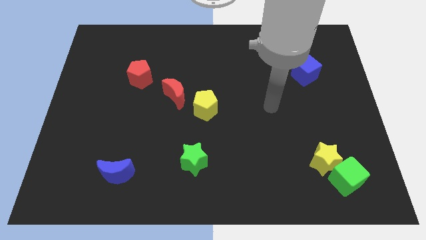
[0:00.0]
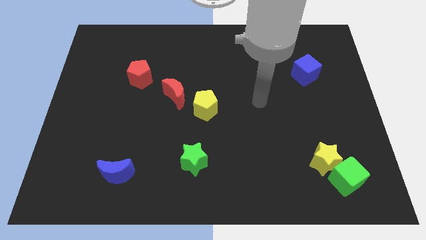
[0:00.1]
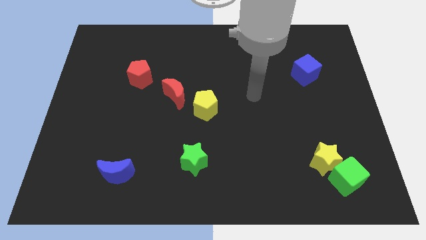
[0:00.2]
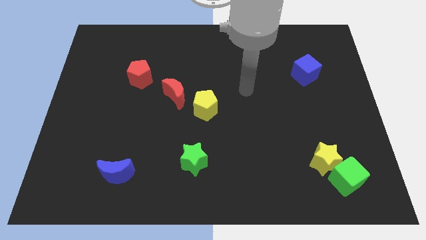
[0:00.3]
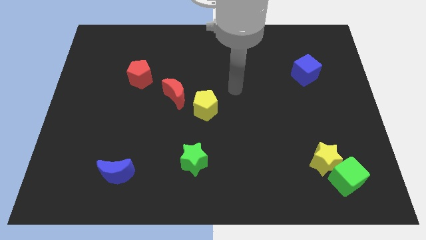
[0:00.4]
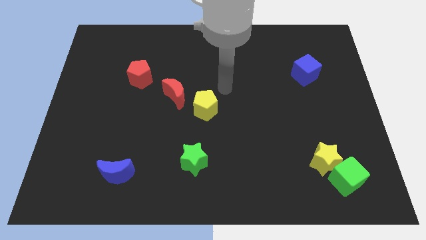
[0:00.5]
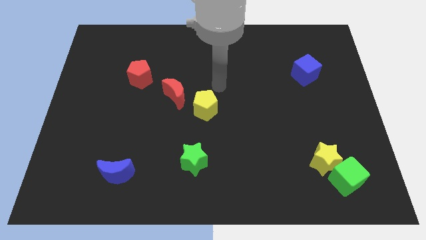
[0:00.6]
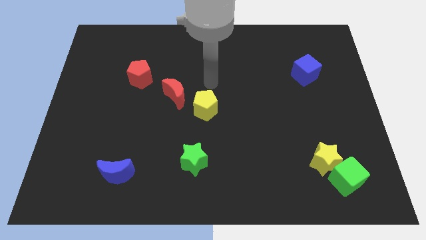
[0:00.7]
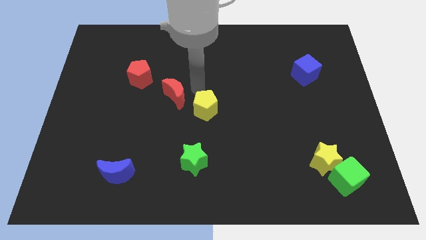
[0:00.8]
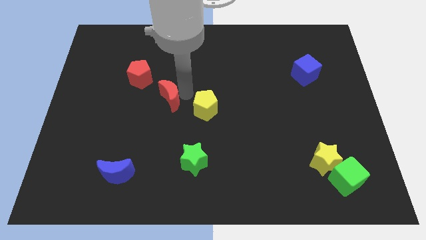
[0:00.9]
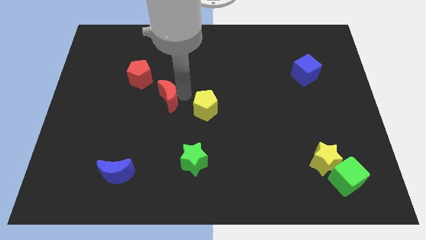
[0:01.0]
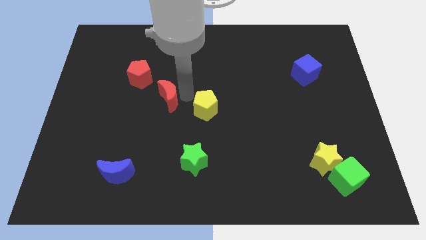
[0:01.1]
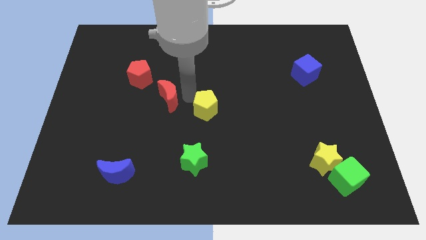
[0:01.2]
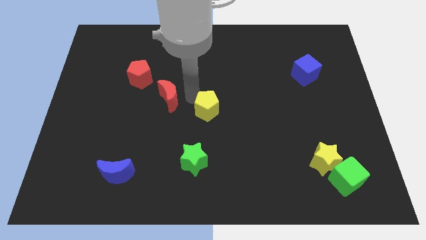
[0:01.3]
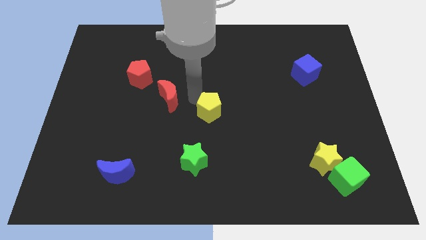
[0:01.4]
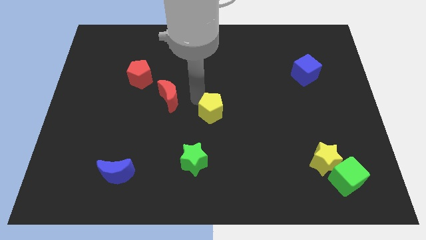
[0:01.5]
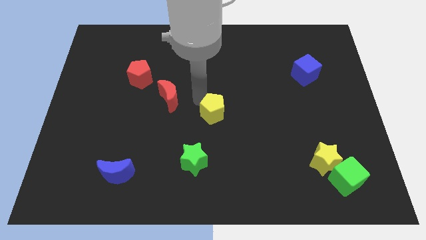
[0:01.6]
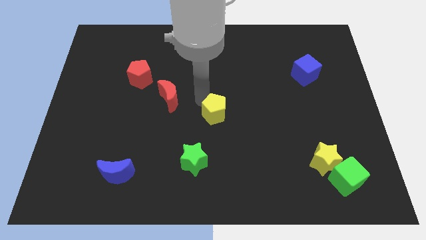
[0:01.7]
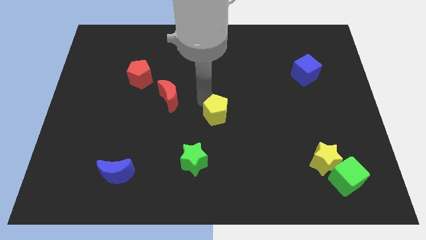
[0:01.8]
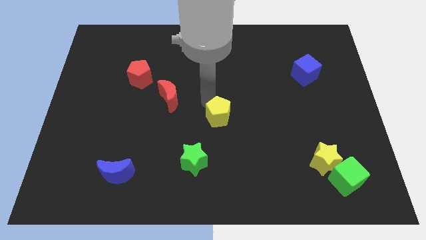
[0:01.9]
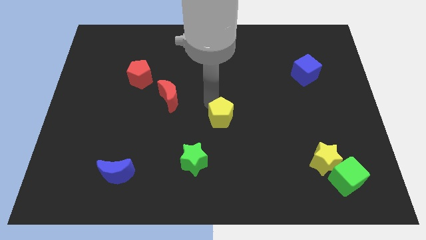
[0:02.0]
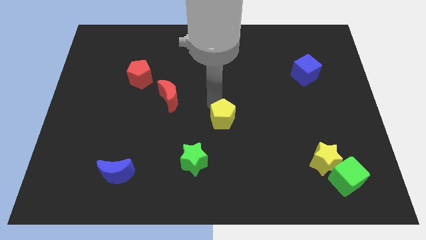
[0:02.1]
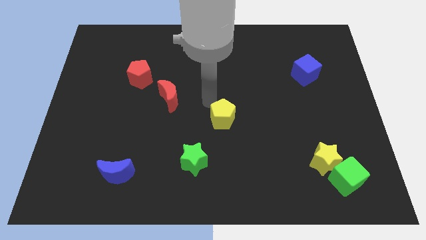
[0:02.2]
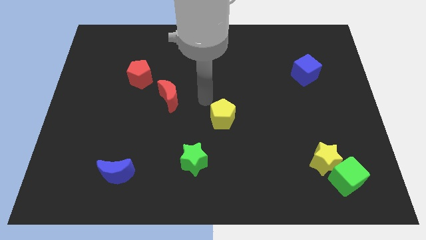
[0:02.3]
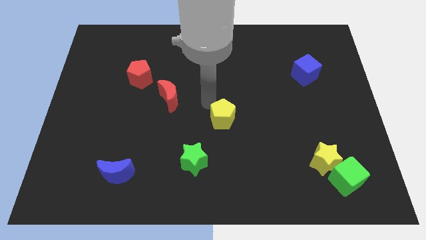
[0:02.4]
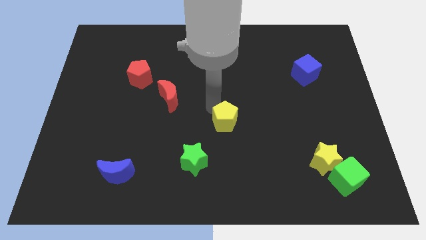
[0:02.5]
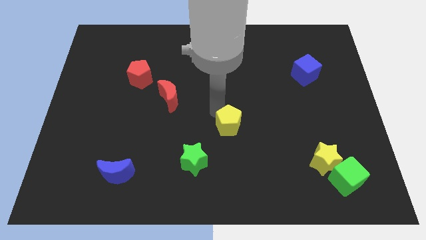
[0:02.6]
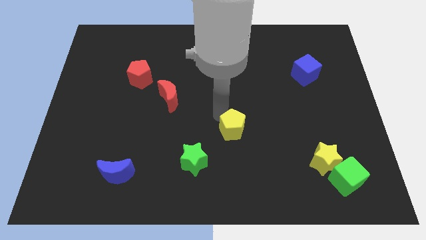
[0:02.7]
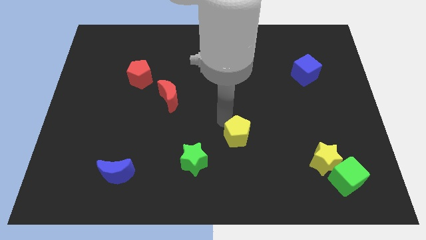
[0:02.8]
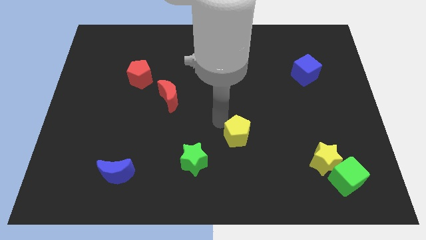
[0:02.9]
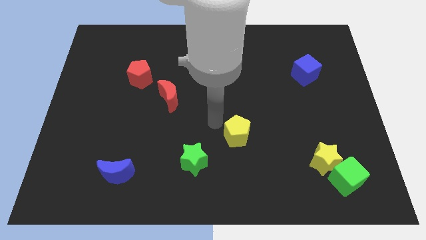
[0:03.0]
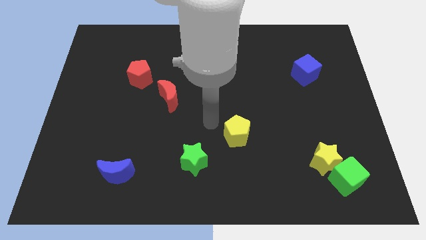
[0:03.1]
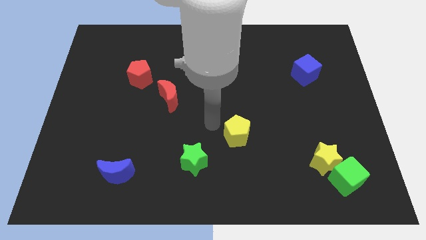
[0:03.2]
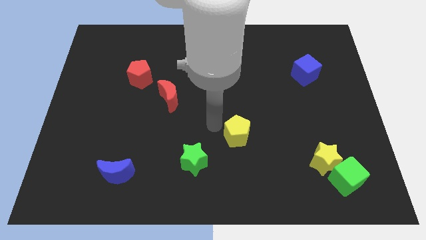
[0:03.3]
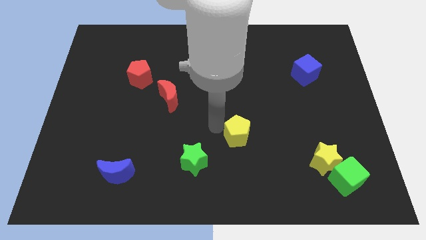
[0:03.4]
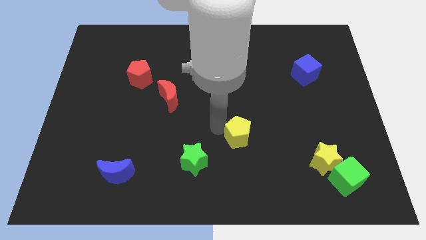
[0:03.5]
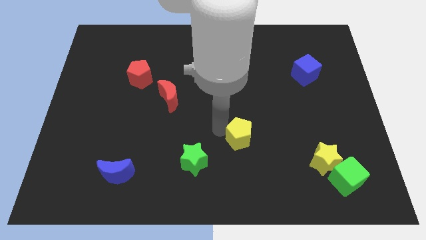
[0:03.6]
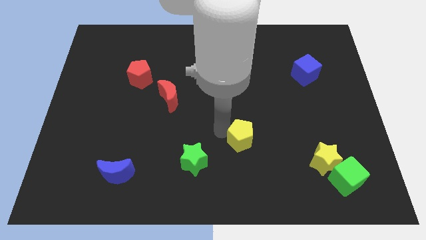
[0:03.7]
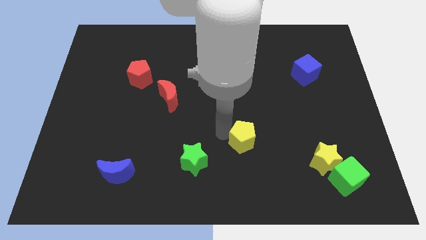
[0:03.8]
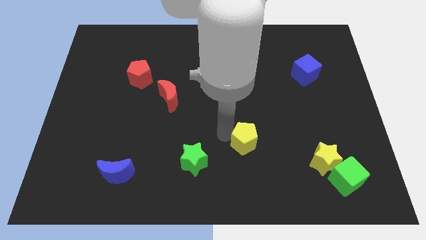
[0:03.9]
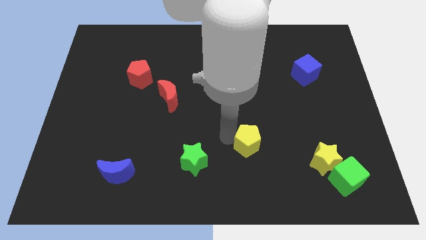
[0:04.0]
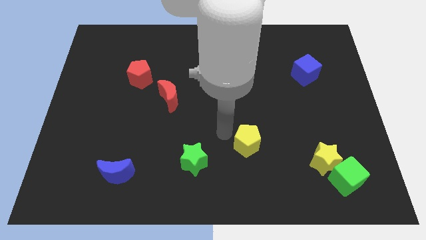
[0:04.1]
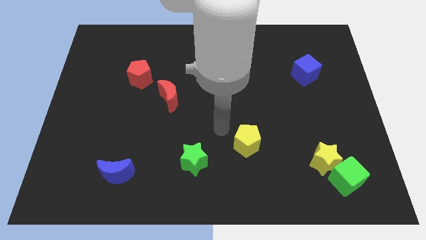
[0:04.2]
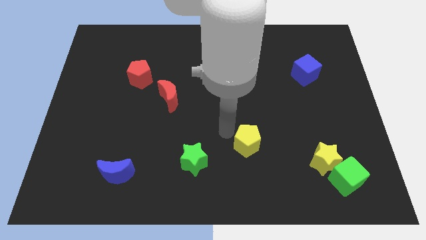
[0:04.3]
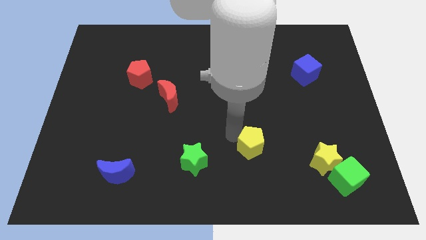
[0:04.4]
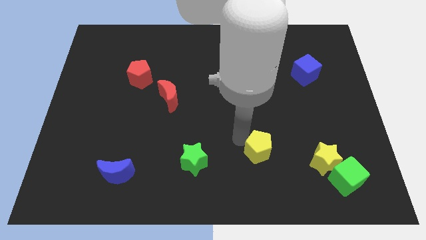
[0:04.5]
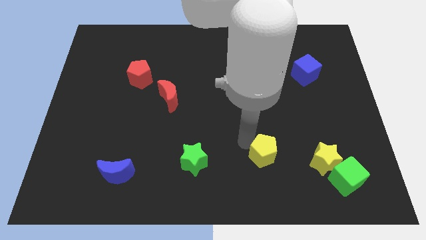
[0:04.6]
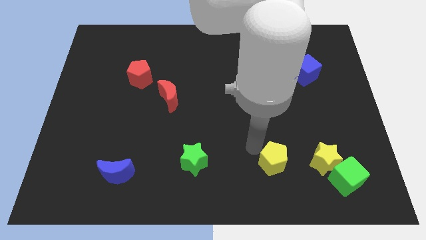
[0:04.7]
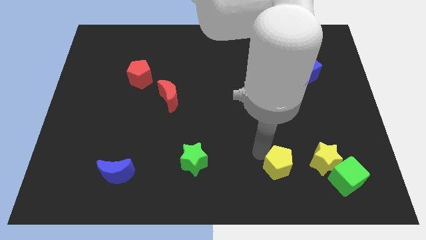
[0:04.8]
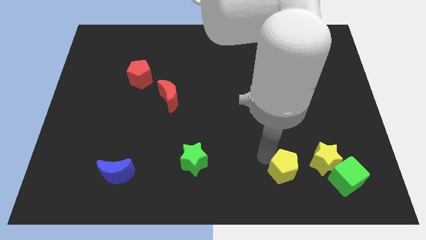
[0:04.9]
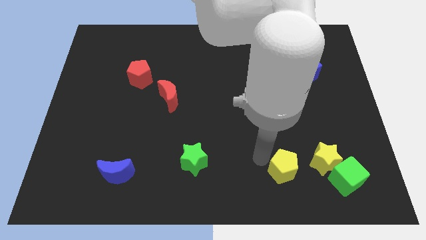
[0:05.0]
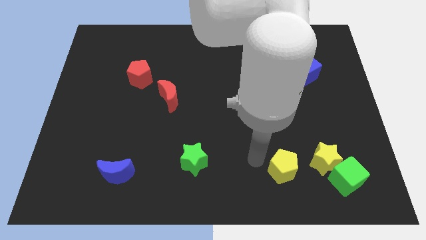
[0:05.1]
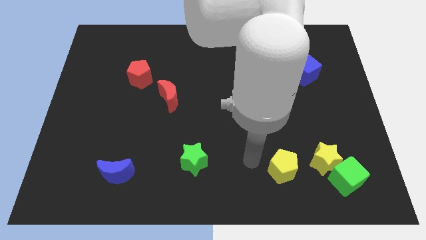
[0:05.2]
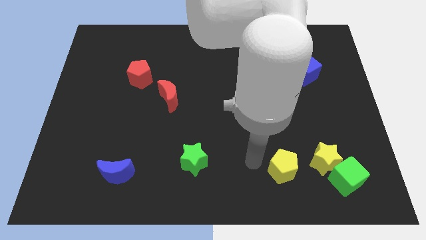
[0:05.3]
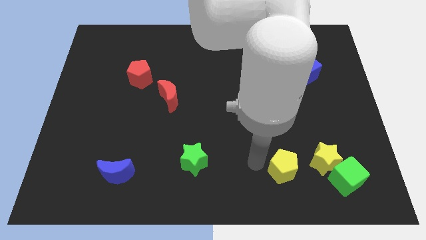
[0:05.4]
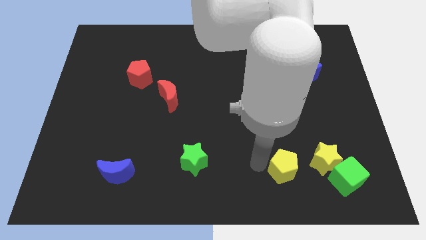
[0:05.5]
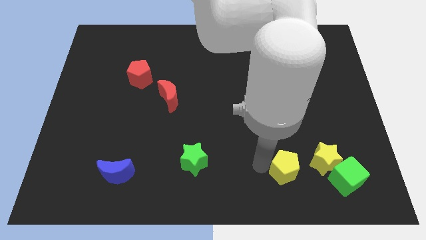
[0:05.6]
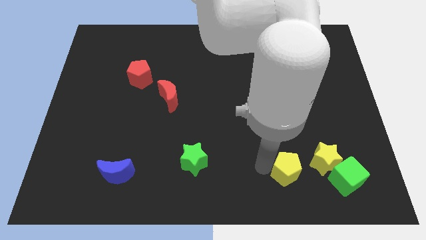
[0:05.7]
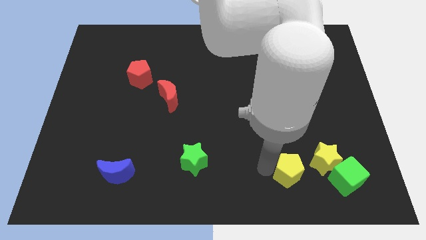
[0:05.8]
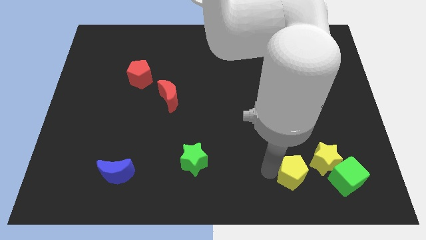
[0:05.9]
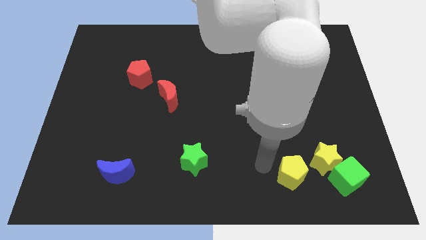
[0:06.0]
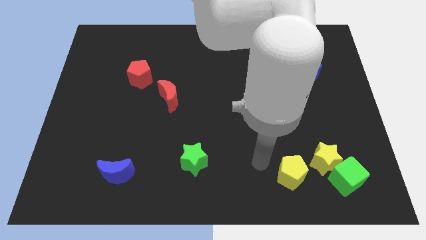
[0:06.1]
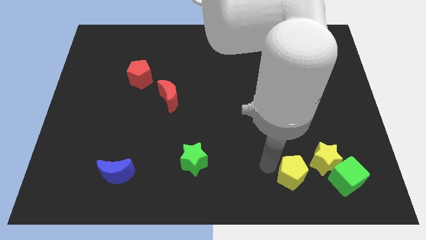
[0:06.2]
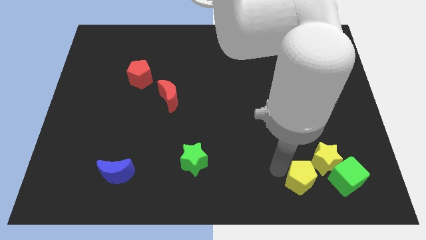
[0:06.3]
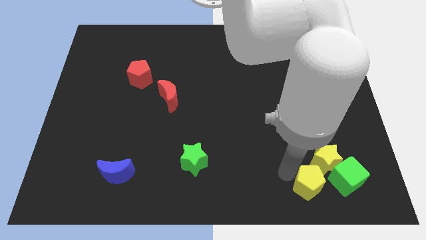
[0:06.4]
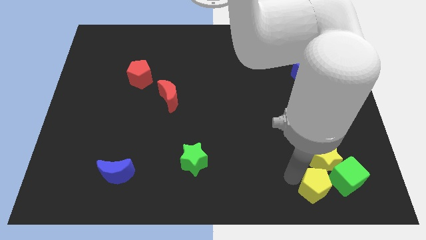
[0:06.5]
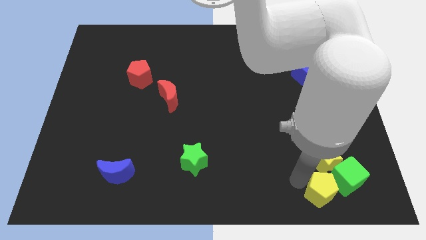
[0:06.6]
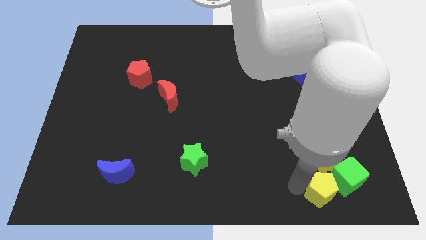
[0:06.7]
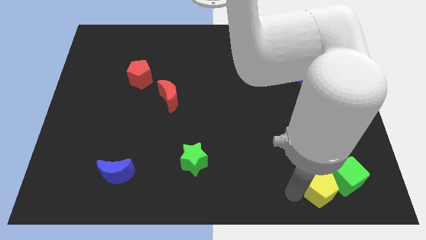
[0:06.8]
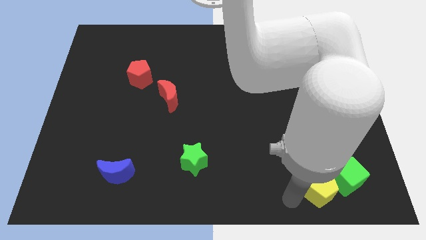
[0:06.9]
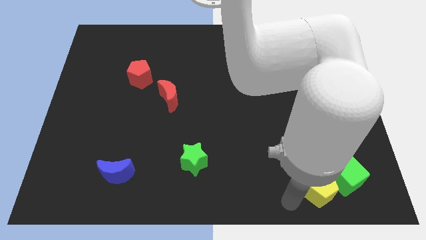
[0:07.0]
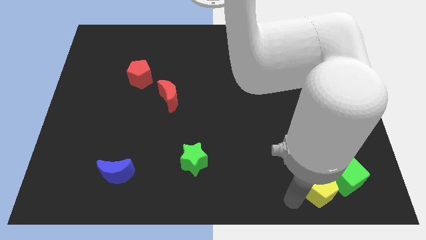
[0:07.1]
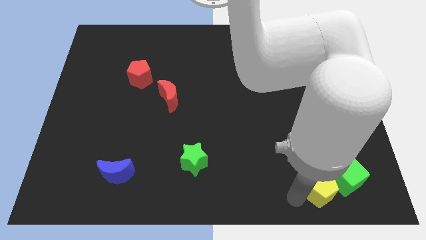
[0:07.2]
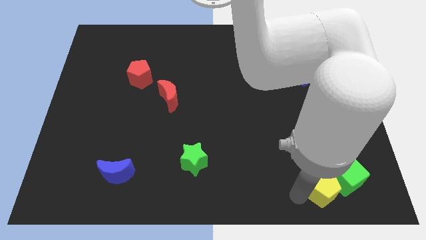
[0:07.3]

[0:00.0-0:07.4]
move the yellow pentagon next to the green cube
